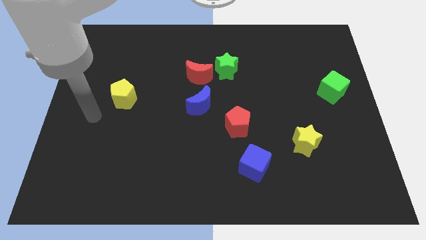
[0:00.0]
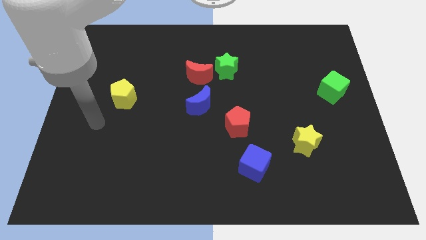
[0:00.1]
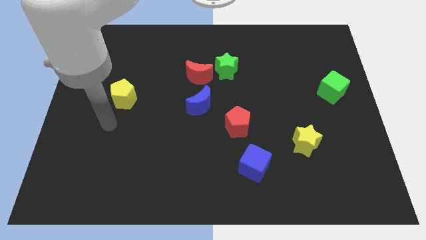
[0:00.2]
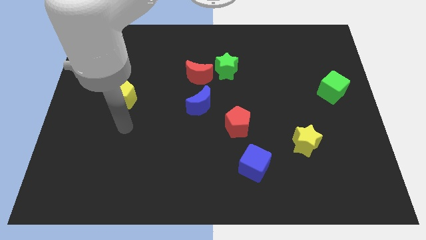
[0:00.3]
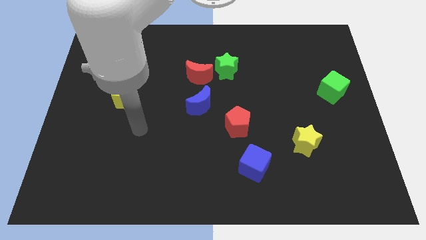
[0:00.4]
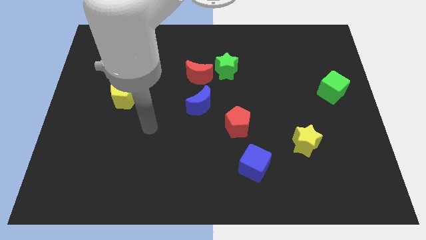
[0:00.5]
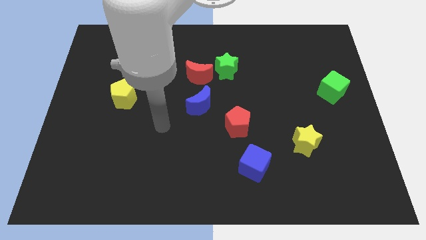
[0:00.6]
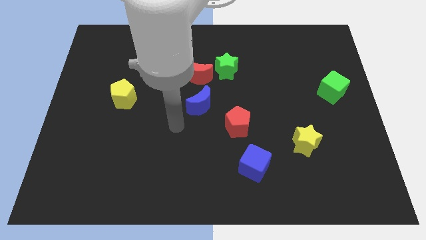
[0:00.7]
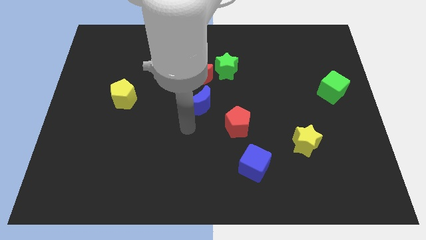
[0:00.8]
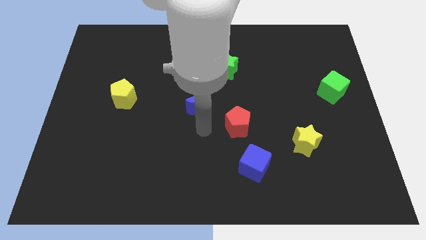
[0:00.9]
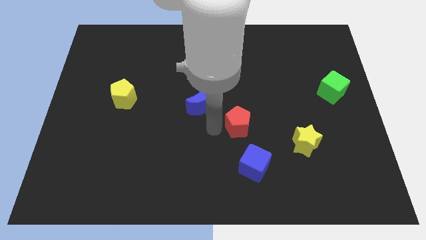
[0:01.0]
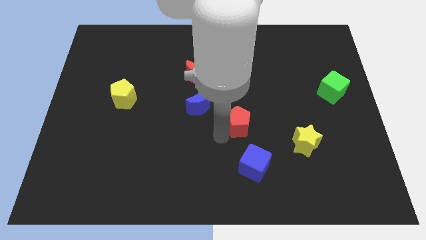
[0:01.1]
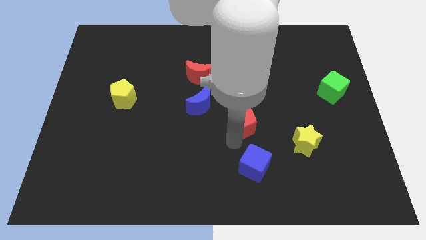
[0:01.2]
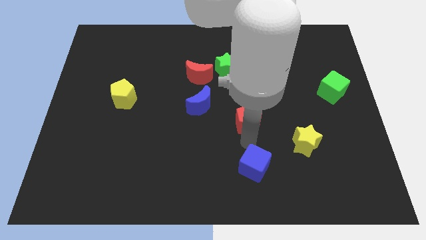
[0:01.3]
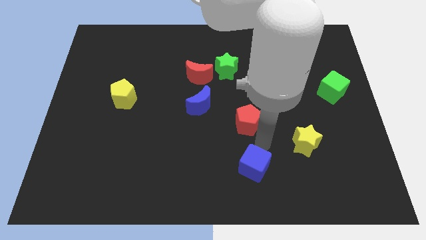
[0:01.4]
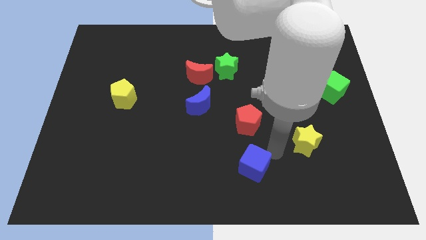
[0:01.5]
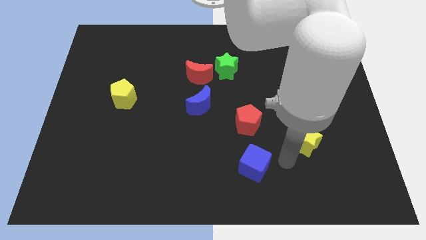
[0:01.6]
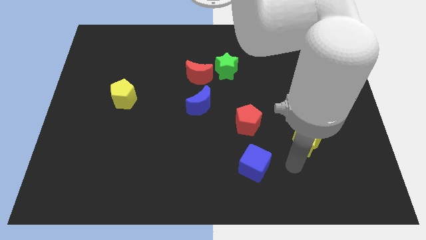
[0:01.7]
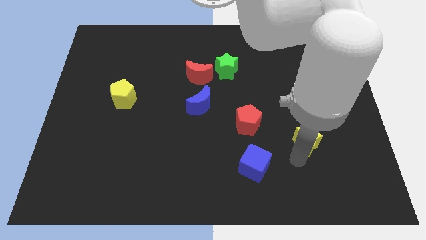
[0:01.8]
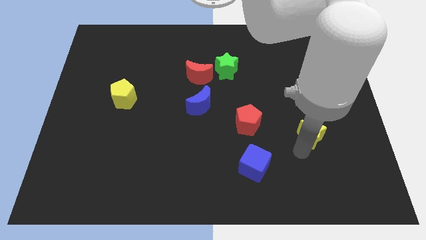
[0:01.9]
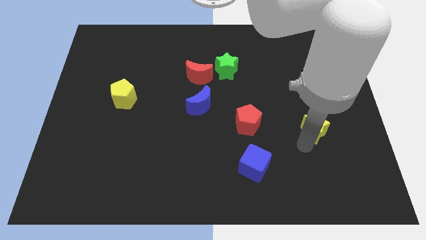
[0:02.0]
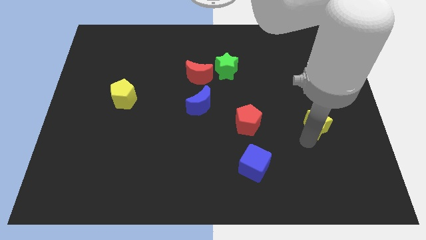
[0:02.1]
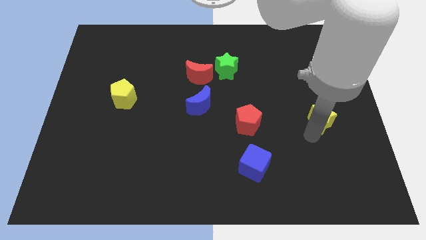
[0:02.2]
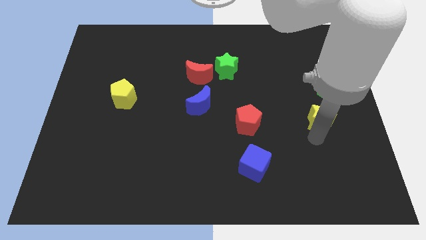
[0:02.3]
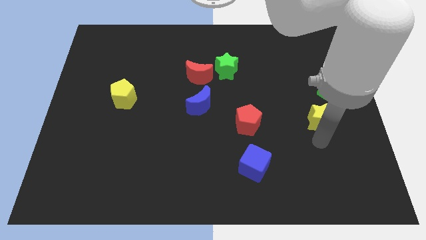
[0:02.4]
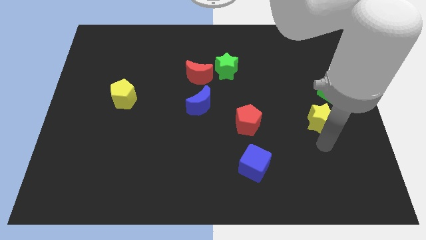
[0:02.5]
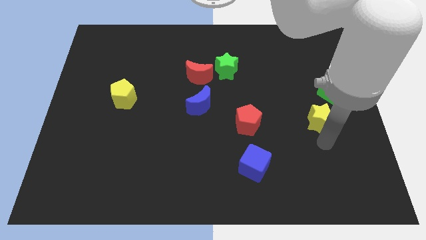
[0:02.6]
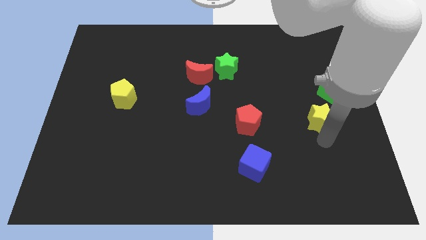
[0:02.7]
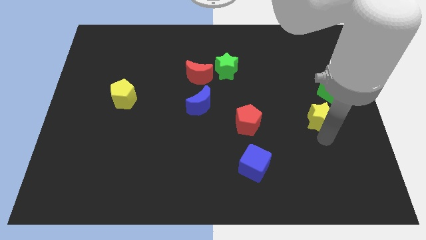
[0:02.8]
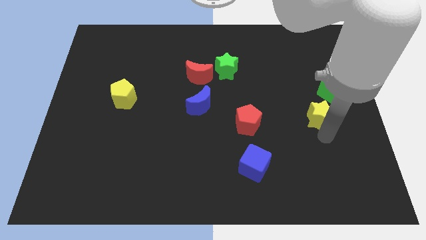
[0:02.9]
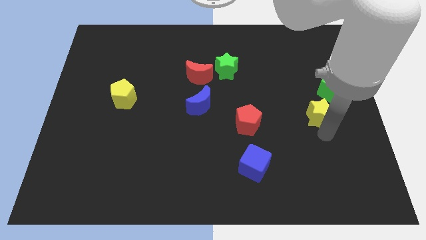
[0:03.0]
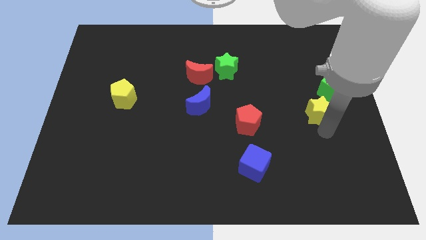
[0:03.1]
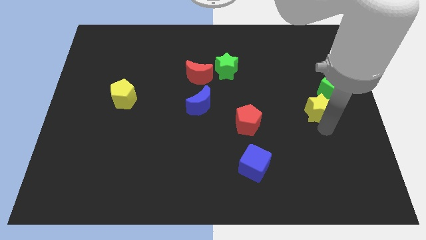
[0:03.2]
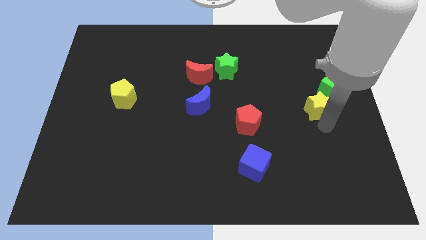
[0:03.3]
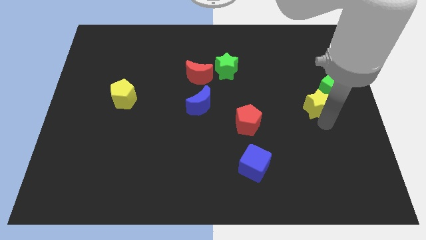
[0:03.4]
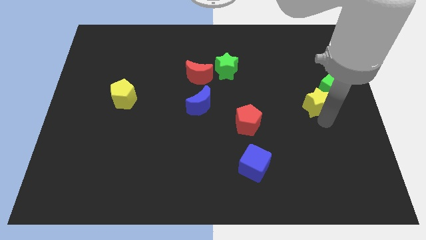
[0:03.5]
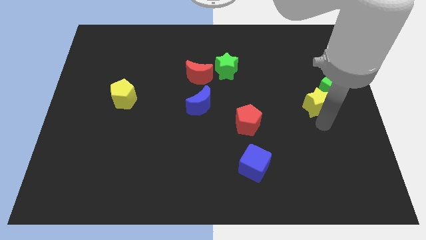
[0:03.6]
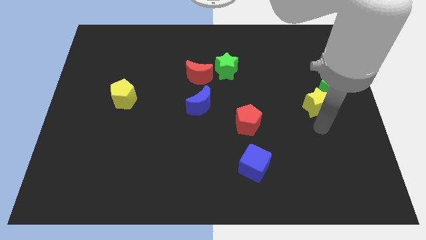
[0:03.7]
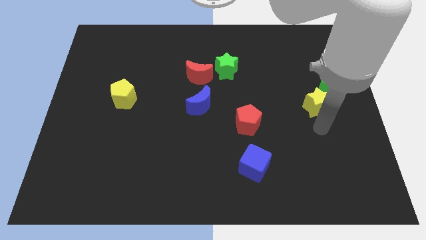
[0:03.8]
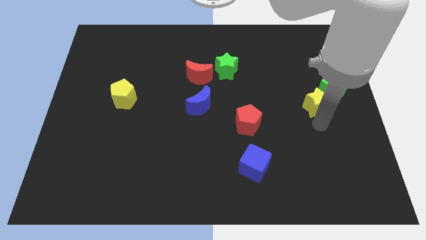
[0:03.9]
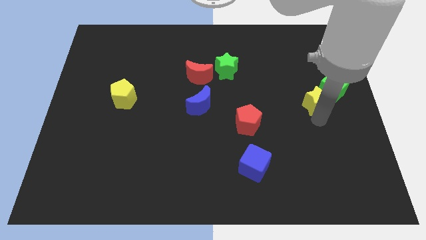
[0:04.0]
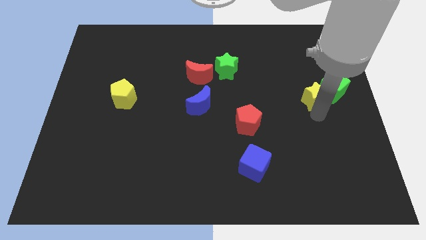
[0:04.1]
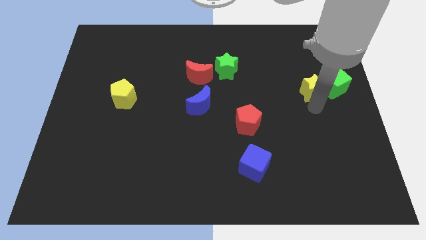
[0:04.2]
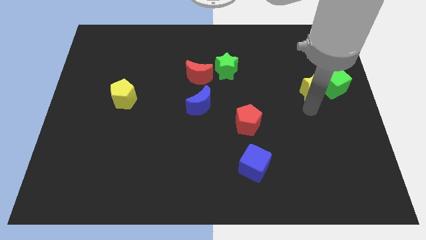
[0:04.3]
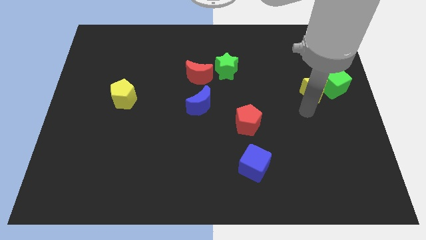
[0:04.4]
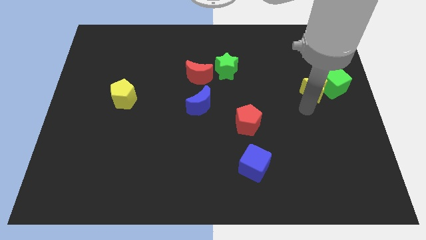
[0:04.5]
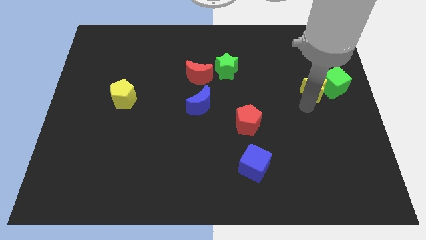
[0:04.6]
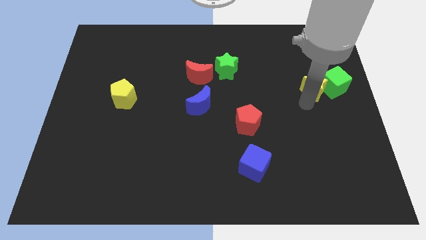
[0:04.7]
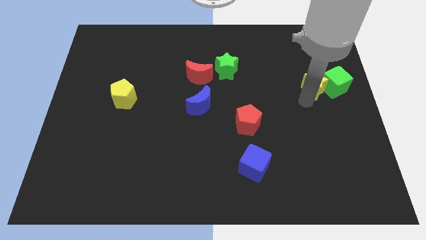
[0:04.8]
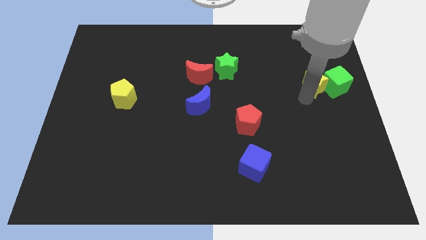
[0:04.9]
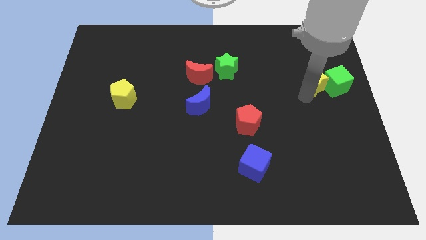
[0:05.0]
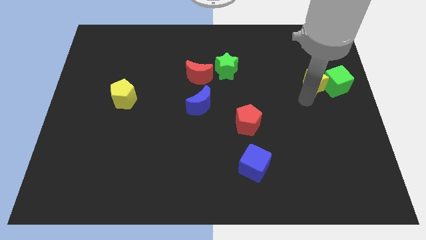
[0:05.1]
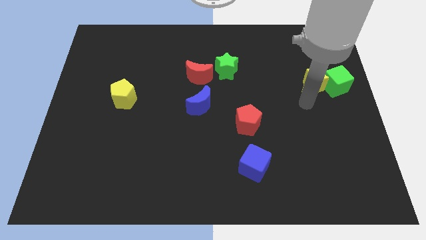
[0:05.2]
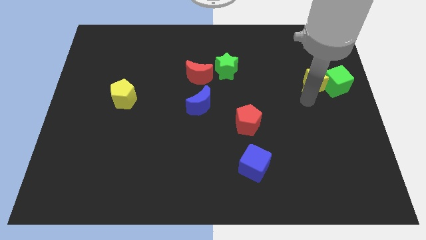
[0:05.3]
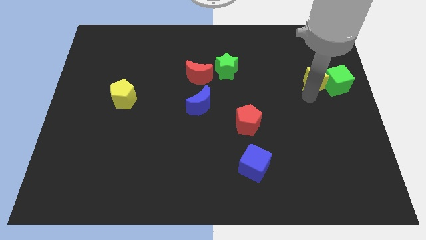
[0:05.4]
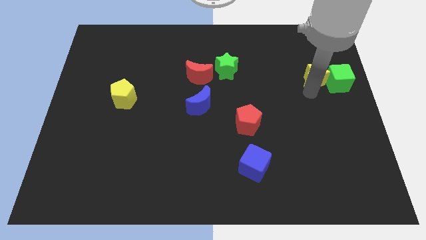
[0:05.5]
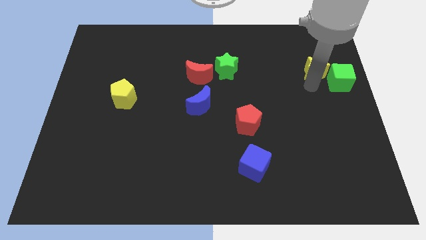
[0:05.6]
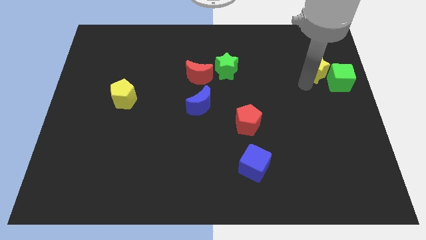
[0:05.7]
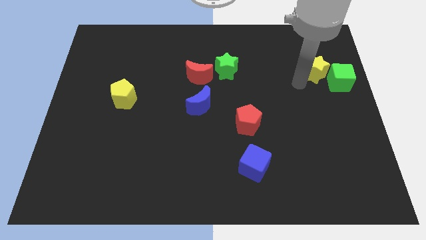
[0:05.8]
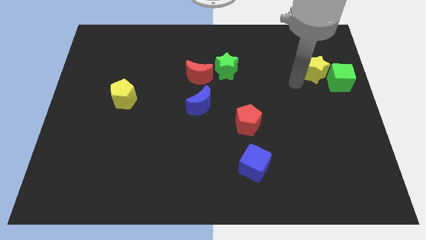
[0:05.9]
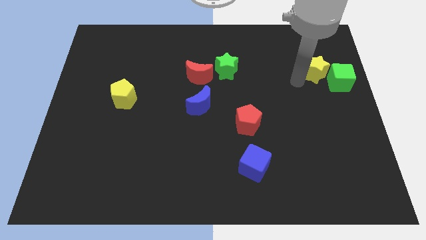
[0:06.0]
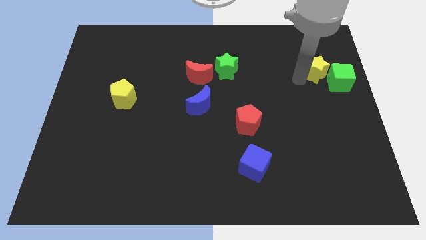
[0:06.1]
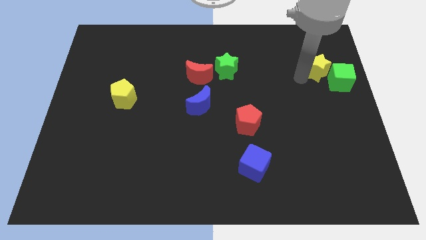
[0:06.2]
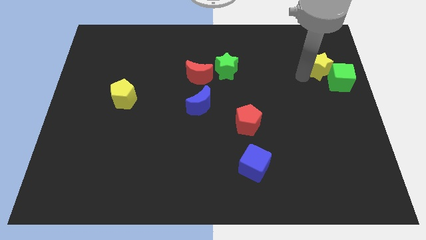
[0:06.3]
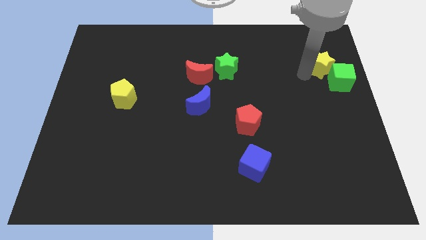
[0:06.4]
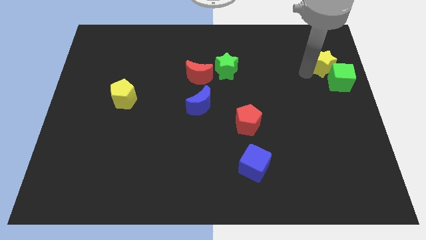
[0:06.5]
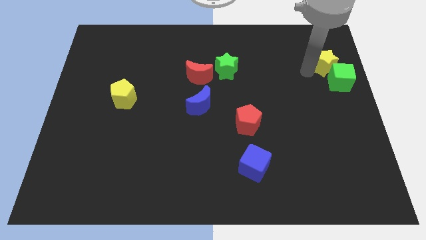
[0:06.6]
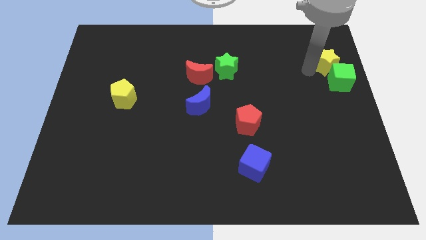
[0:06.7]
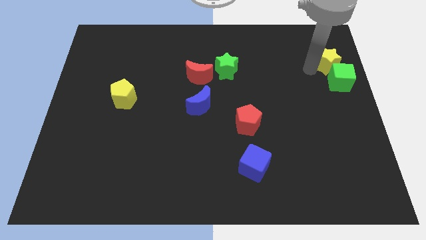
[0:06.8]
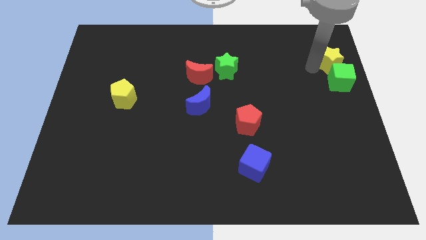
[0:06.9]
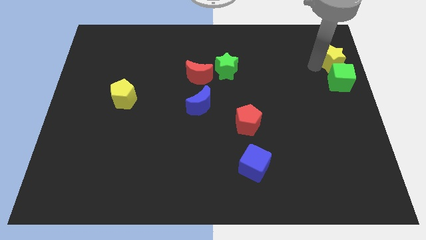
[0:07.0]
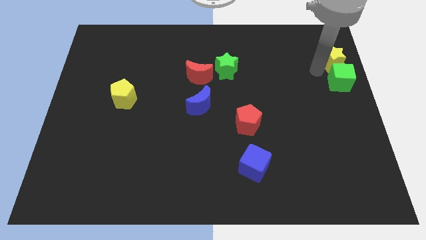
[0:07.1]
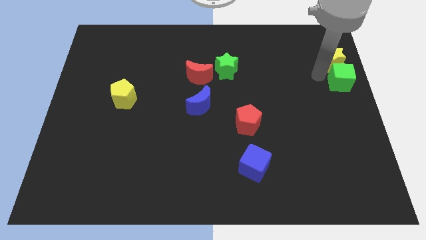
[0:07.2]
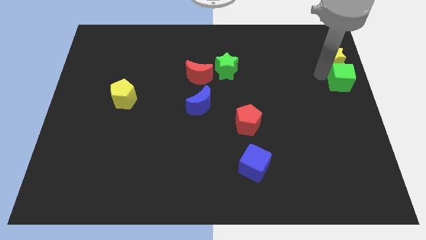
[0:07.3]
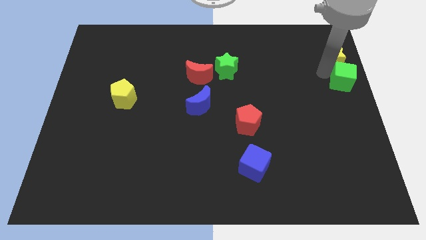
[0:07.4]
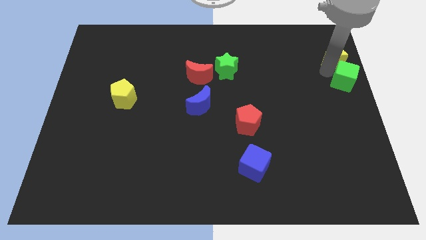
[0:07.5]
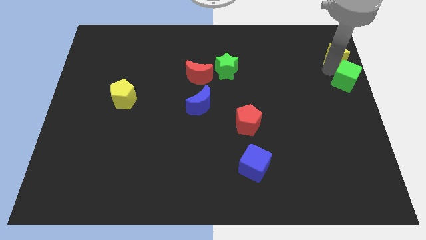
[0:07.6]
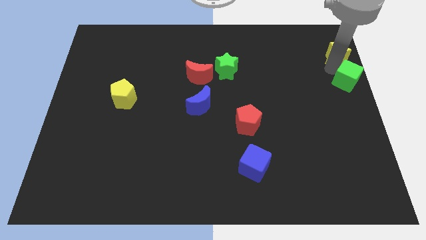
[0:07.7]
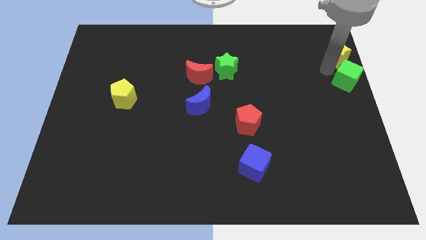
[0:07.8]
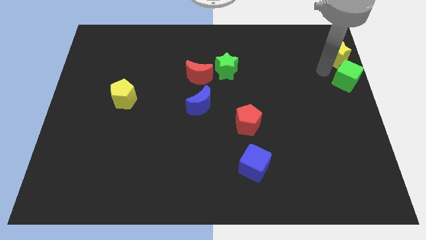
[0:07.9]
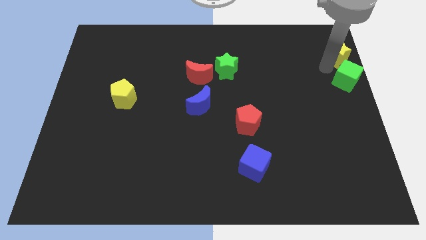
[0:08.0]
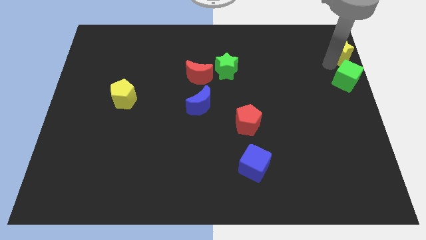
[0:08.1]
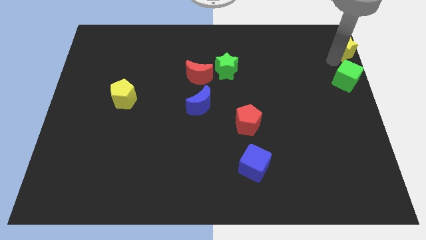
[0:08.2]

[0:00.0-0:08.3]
put the yellow star to the top right
